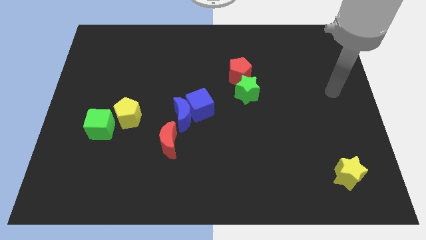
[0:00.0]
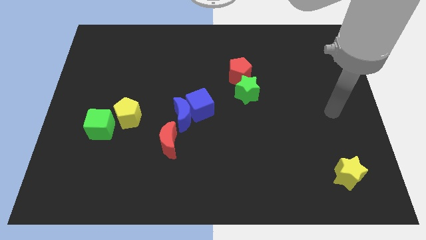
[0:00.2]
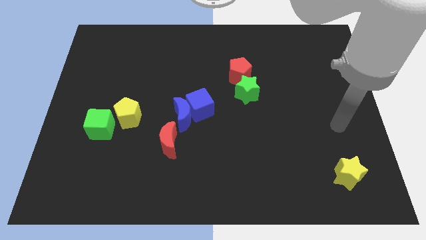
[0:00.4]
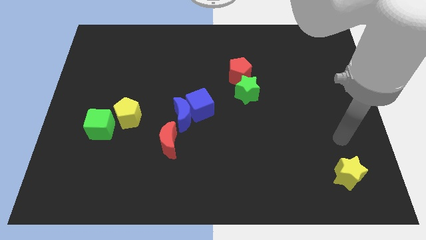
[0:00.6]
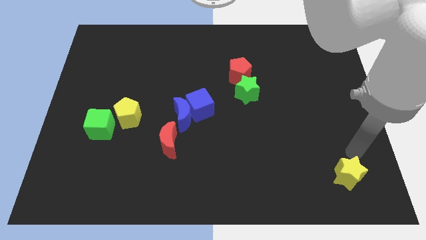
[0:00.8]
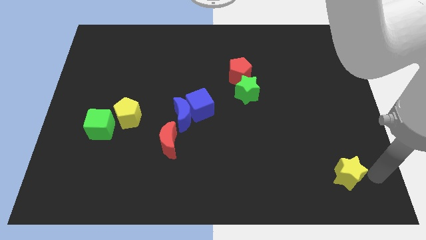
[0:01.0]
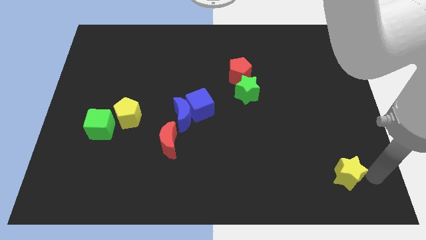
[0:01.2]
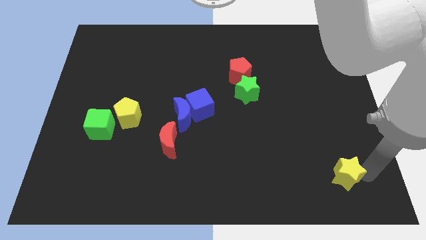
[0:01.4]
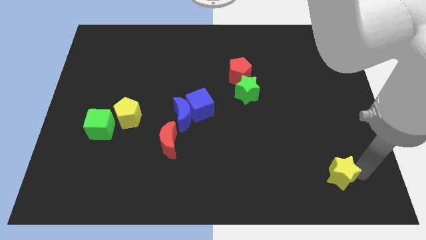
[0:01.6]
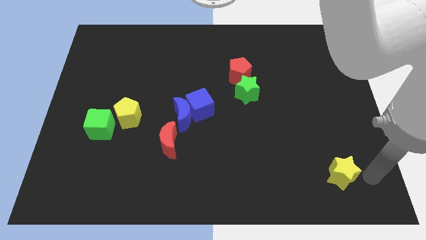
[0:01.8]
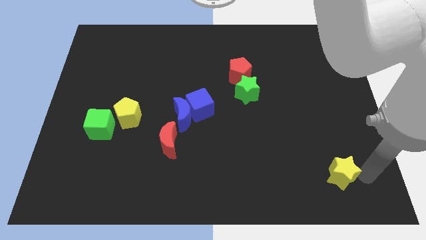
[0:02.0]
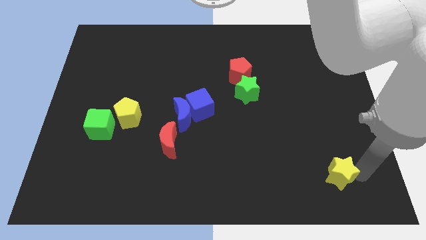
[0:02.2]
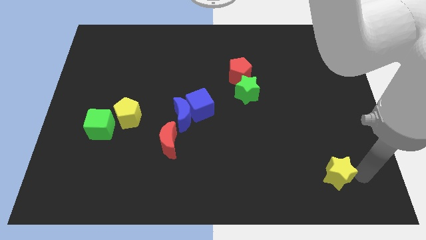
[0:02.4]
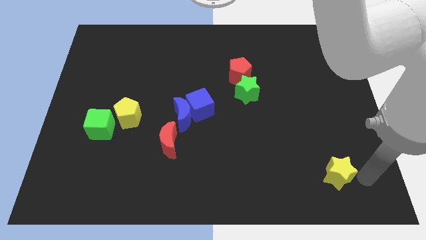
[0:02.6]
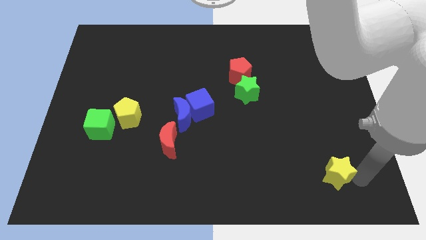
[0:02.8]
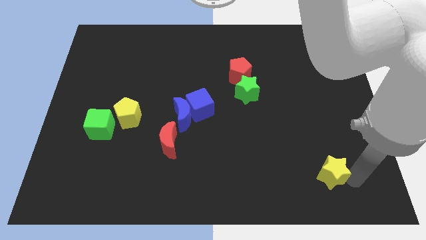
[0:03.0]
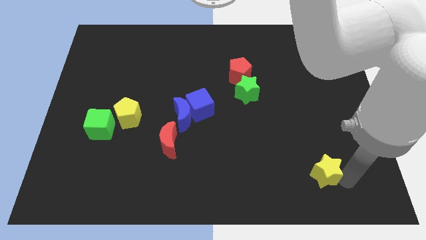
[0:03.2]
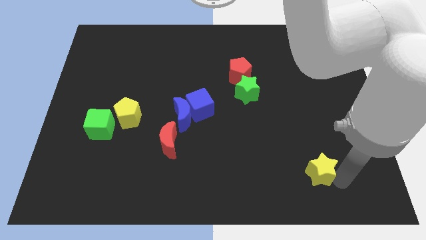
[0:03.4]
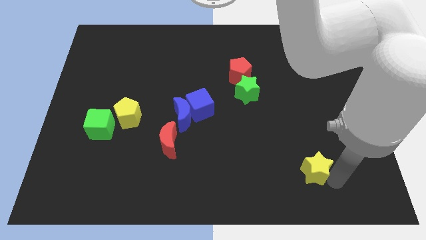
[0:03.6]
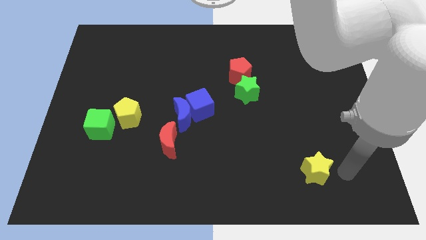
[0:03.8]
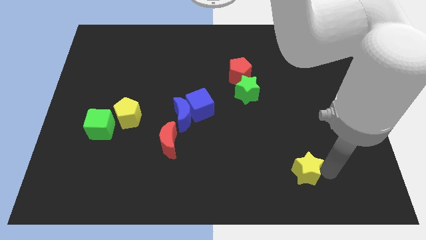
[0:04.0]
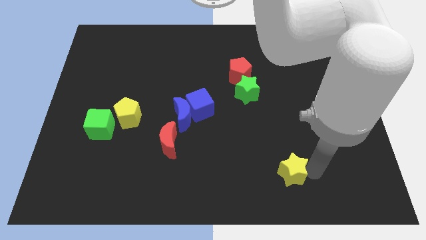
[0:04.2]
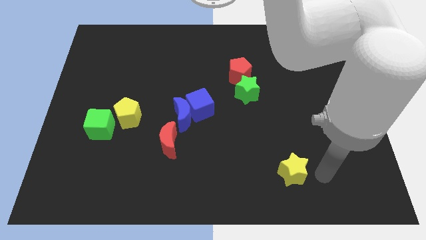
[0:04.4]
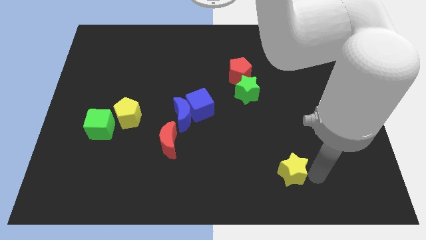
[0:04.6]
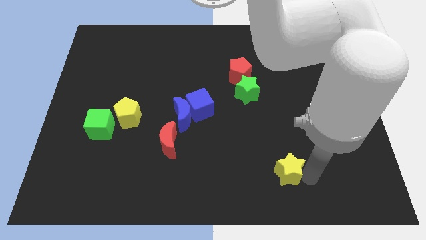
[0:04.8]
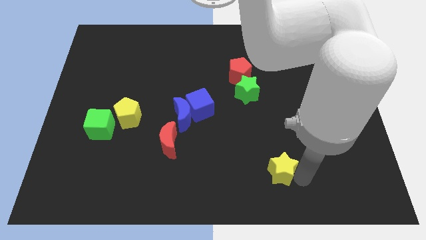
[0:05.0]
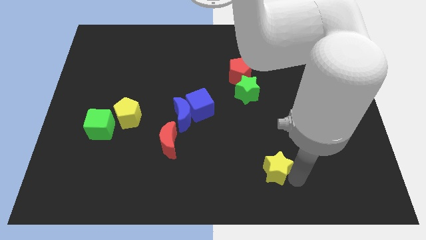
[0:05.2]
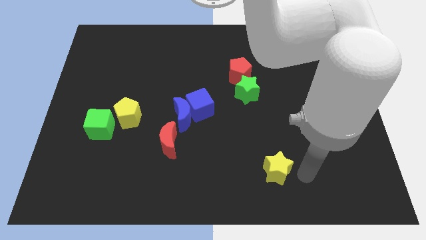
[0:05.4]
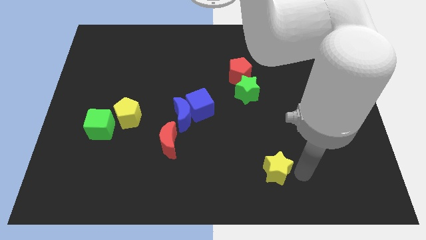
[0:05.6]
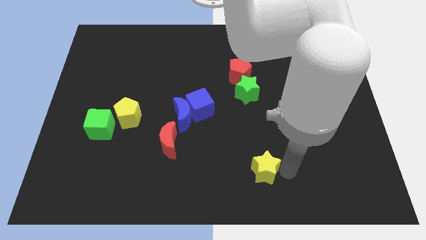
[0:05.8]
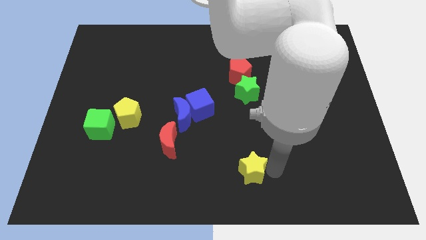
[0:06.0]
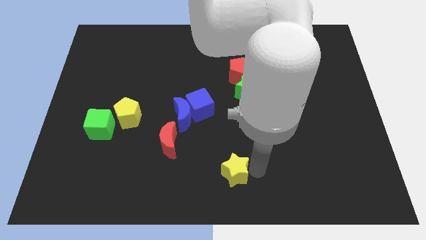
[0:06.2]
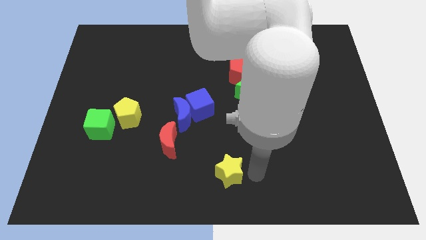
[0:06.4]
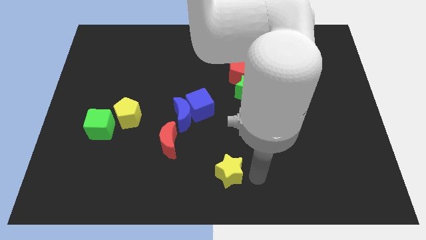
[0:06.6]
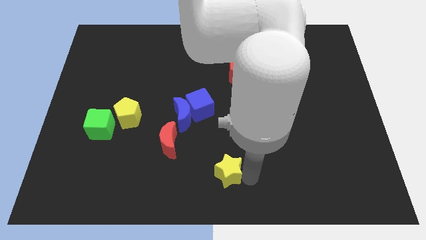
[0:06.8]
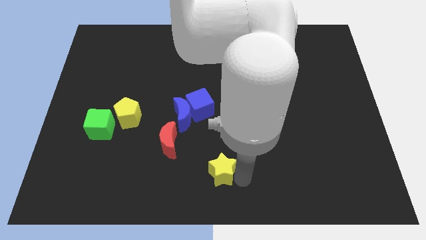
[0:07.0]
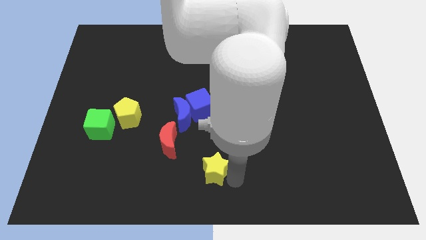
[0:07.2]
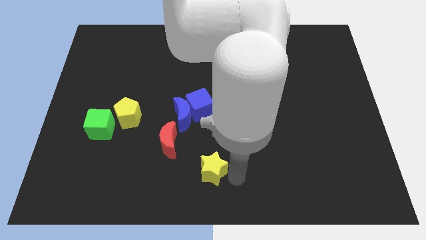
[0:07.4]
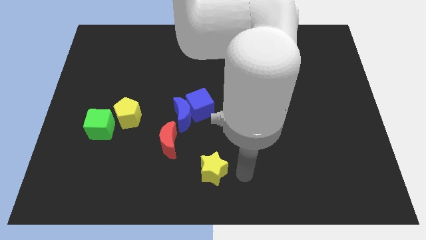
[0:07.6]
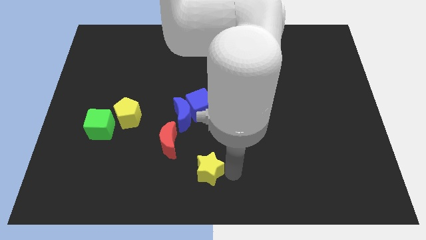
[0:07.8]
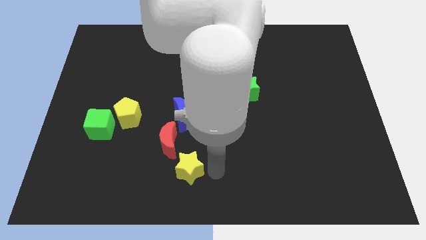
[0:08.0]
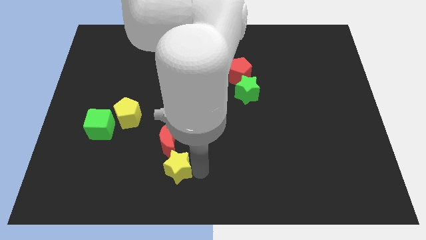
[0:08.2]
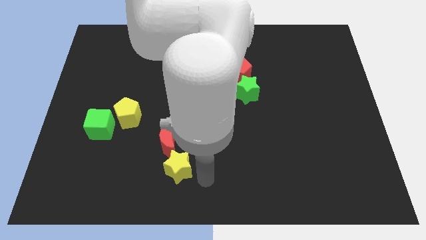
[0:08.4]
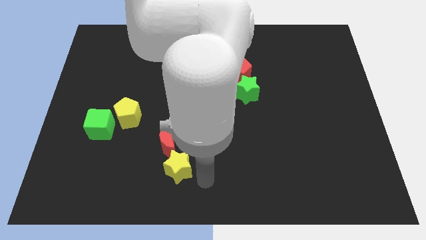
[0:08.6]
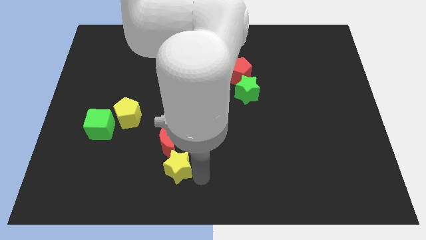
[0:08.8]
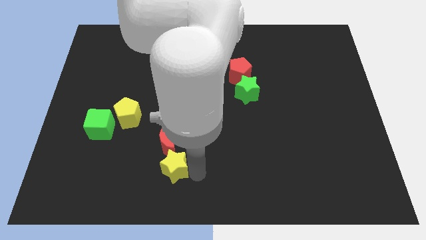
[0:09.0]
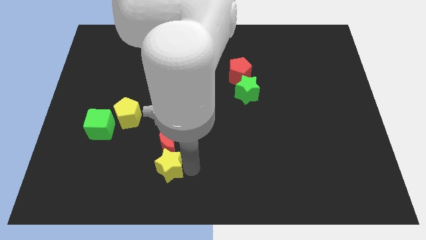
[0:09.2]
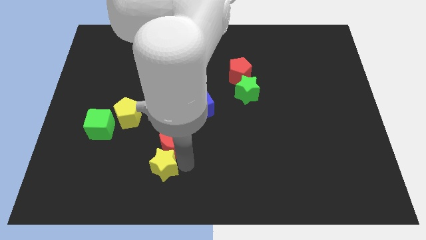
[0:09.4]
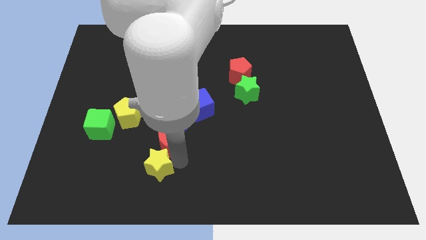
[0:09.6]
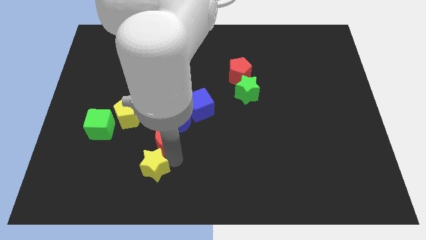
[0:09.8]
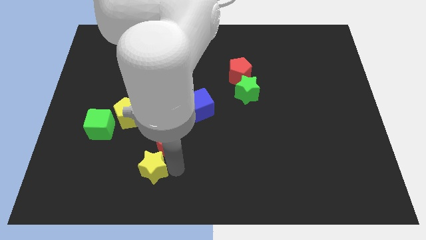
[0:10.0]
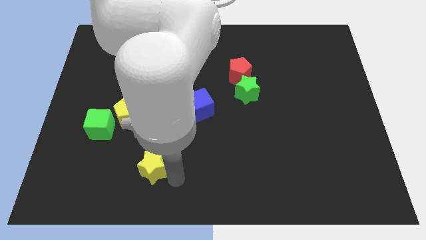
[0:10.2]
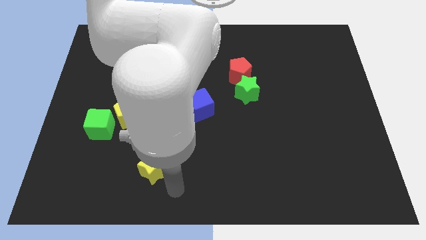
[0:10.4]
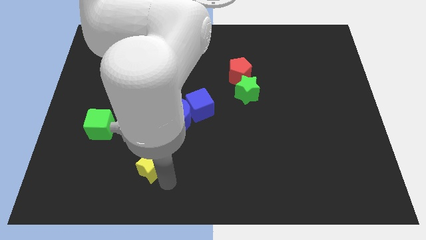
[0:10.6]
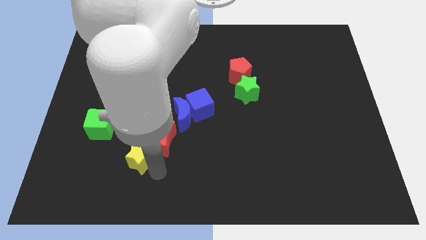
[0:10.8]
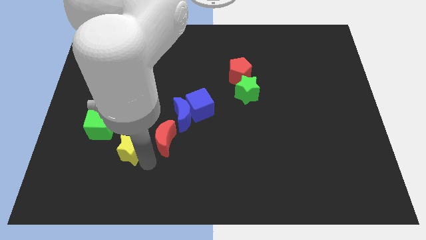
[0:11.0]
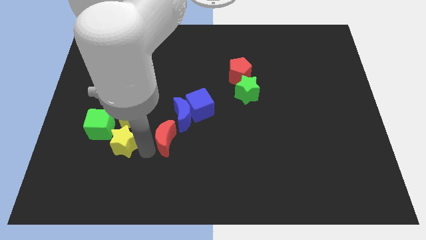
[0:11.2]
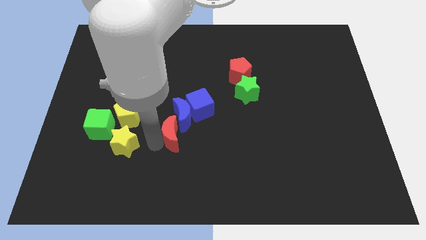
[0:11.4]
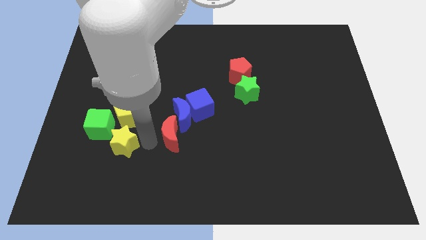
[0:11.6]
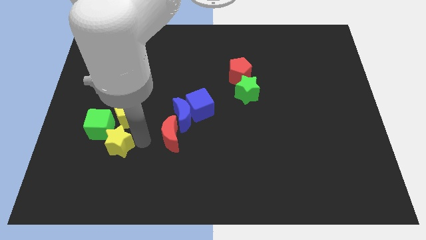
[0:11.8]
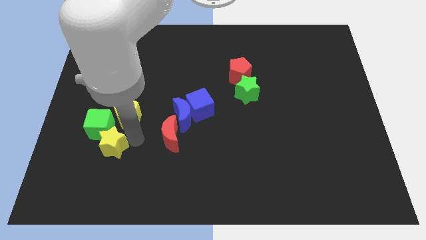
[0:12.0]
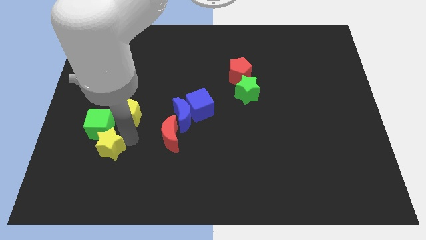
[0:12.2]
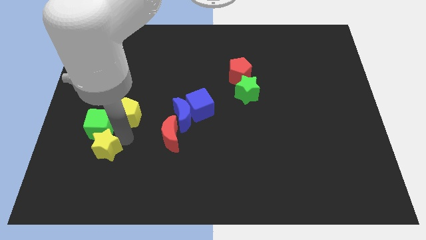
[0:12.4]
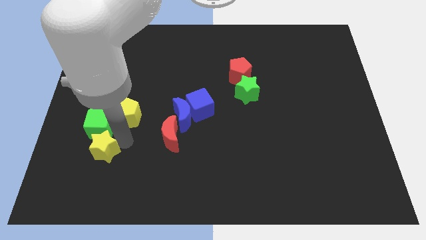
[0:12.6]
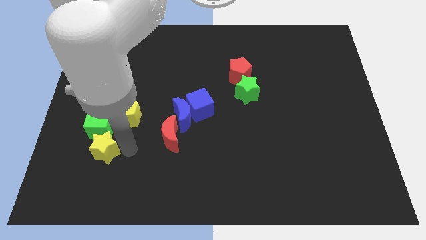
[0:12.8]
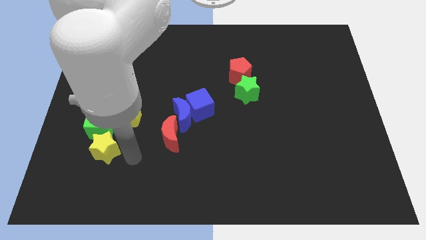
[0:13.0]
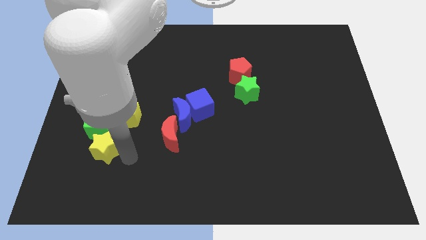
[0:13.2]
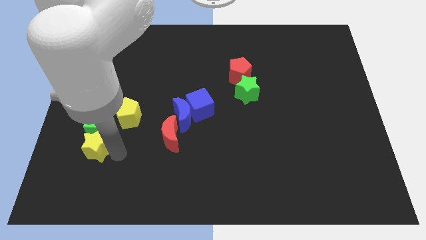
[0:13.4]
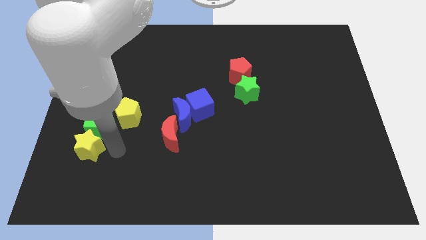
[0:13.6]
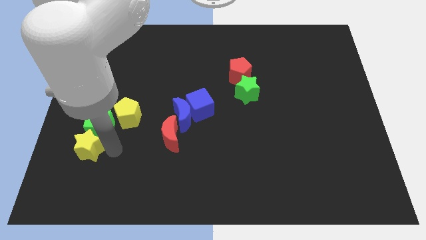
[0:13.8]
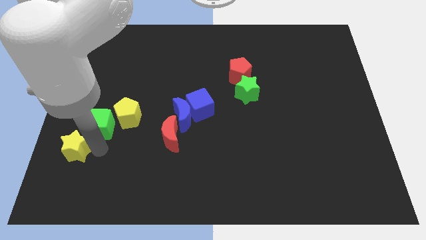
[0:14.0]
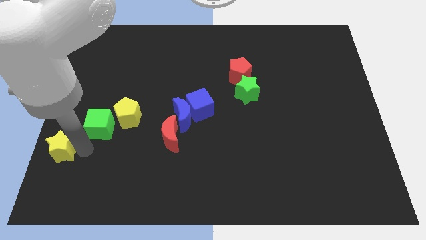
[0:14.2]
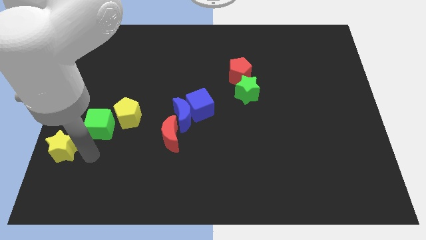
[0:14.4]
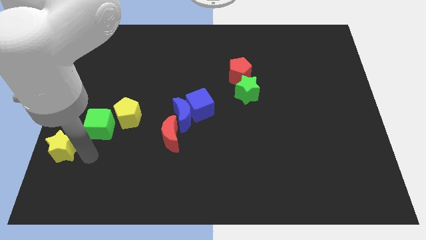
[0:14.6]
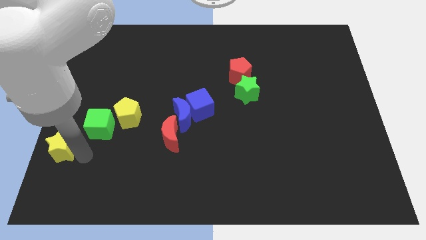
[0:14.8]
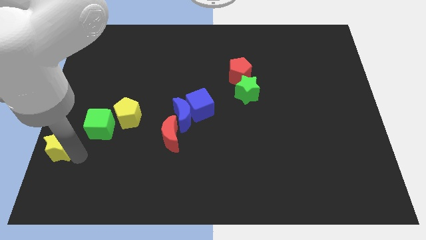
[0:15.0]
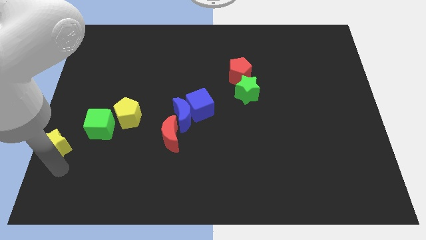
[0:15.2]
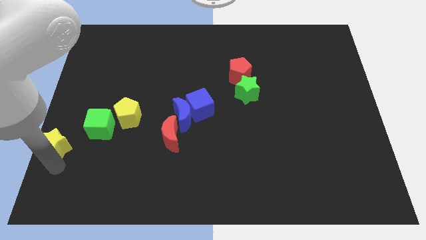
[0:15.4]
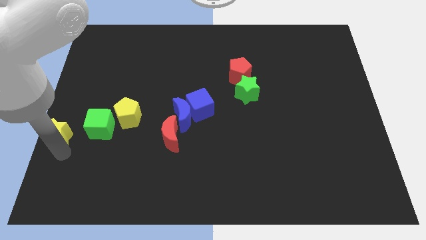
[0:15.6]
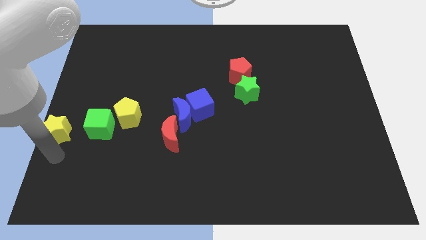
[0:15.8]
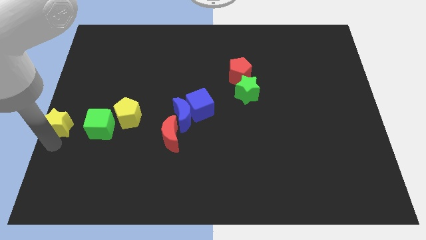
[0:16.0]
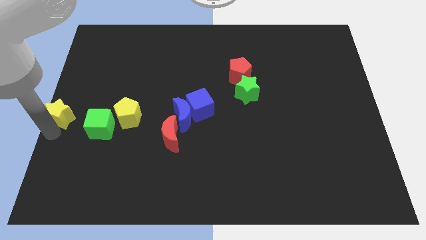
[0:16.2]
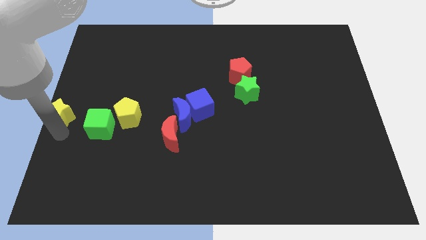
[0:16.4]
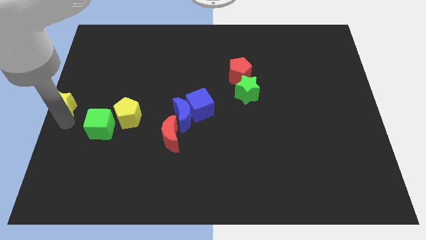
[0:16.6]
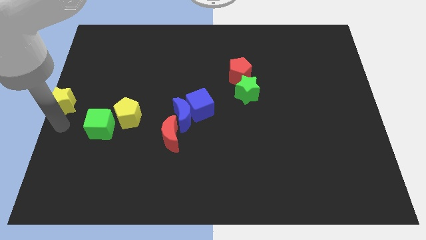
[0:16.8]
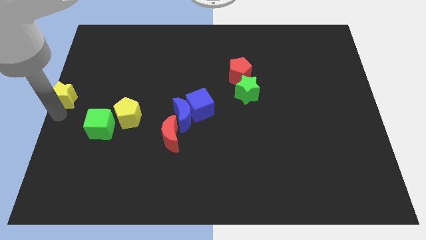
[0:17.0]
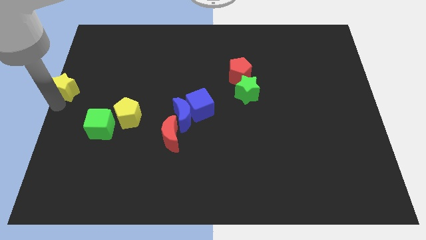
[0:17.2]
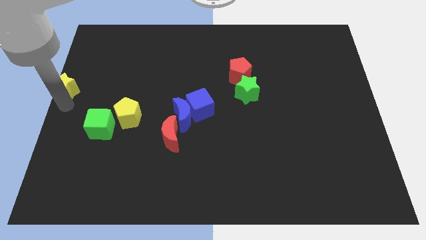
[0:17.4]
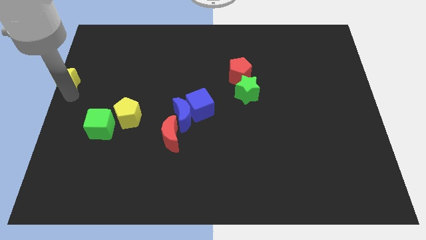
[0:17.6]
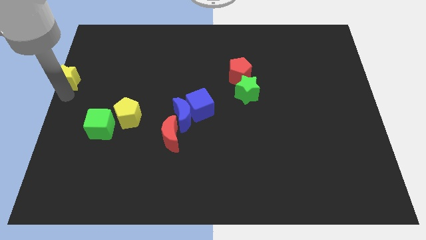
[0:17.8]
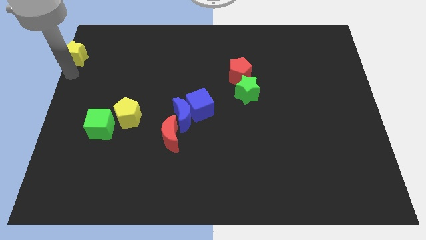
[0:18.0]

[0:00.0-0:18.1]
push the yellow star to the top left
